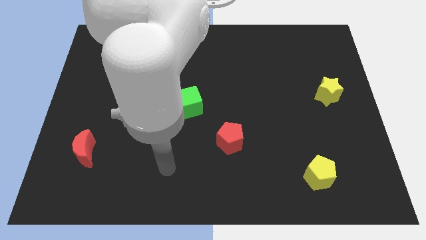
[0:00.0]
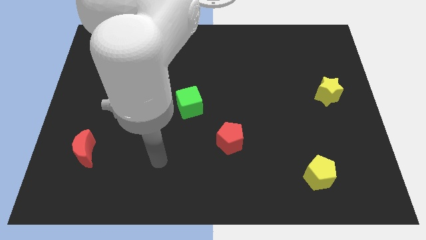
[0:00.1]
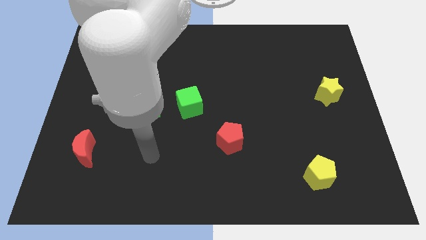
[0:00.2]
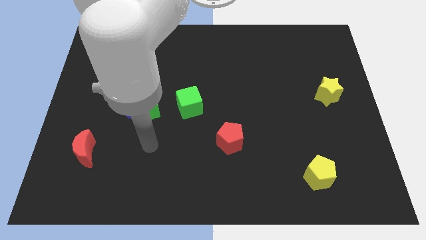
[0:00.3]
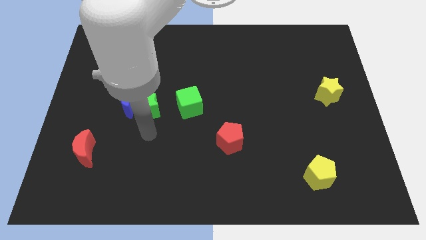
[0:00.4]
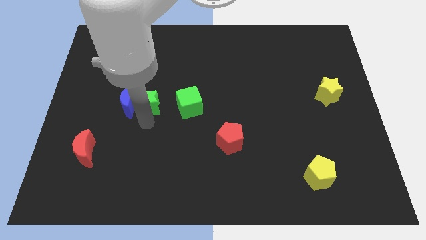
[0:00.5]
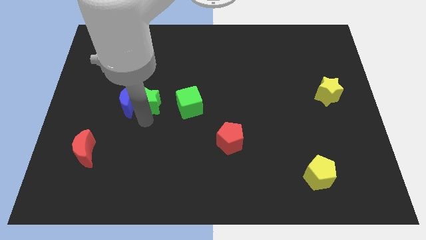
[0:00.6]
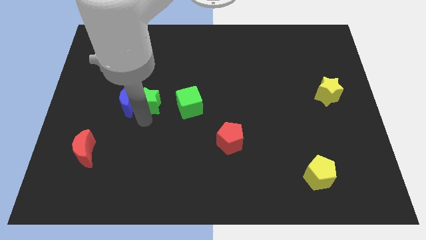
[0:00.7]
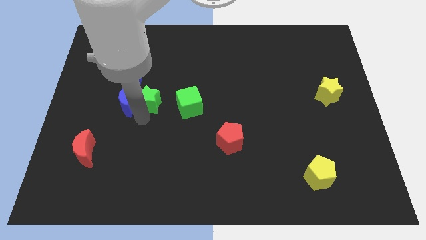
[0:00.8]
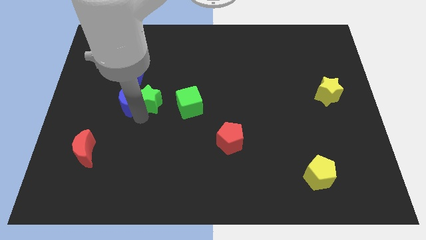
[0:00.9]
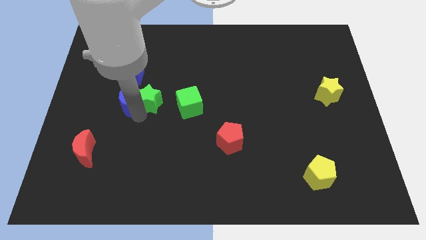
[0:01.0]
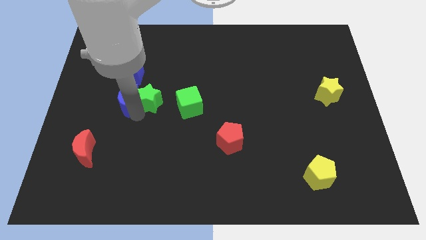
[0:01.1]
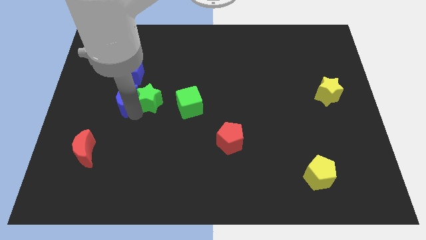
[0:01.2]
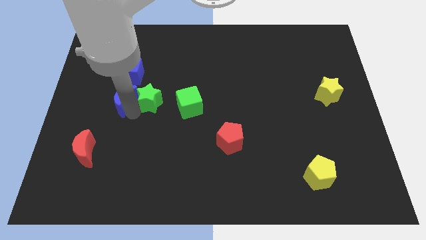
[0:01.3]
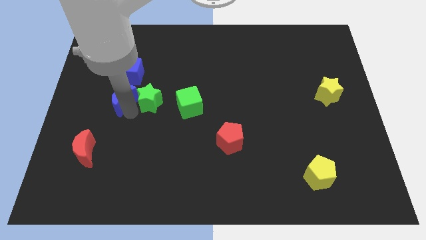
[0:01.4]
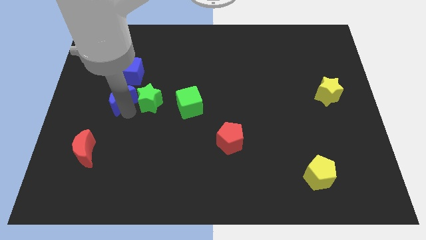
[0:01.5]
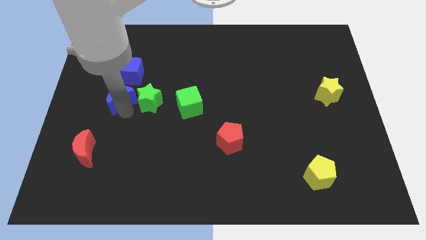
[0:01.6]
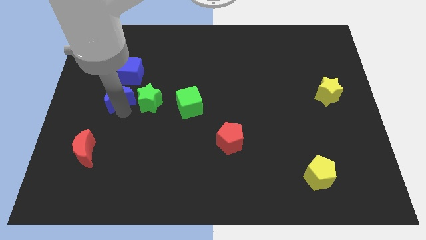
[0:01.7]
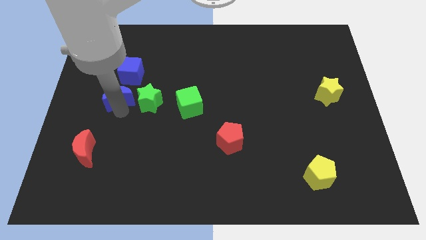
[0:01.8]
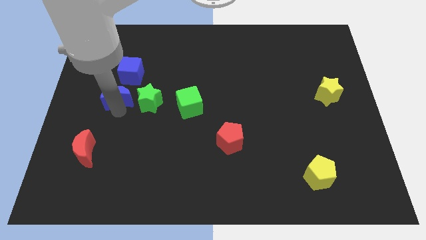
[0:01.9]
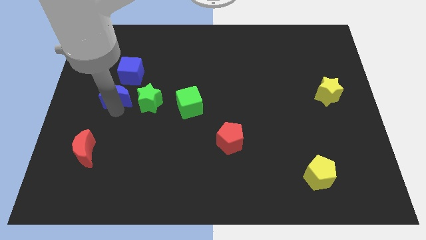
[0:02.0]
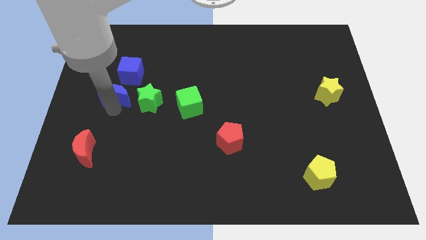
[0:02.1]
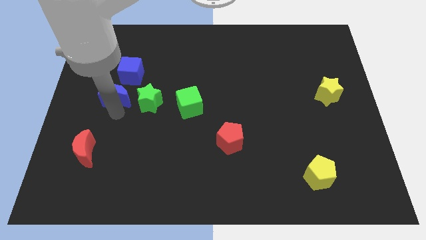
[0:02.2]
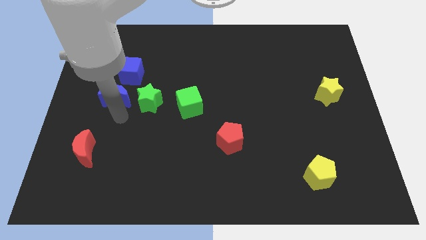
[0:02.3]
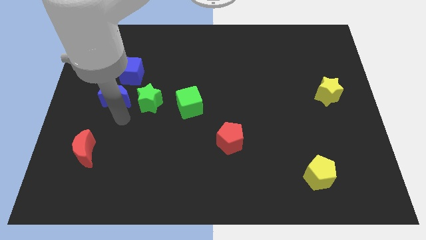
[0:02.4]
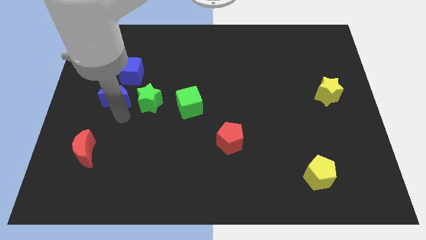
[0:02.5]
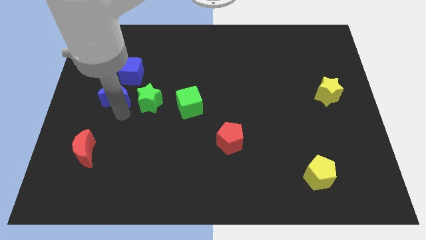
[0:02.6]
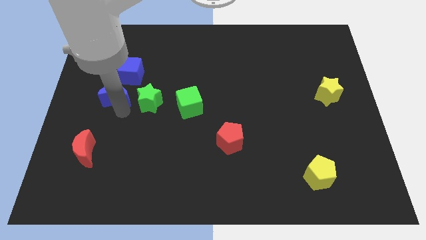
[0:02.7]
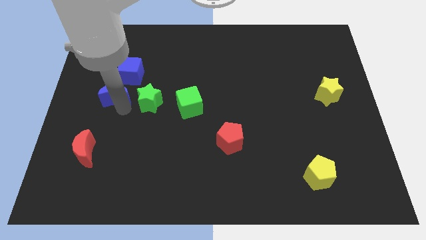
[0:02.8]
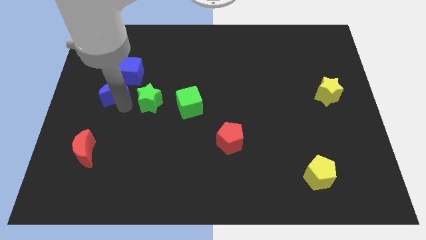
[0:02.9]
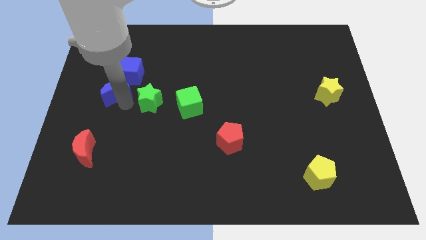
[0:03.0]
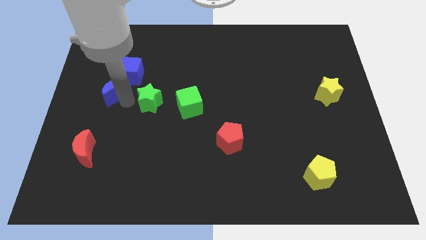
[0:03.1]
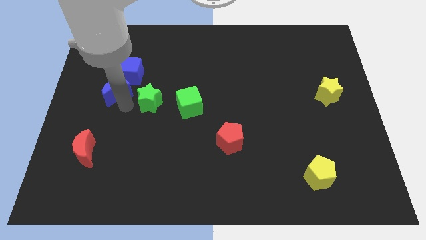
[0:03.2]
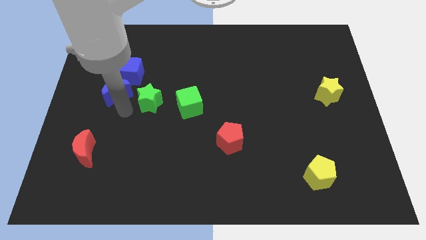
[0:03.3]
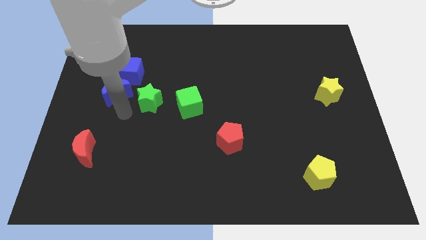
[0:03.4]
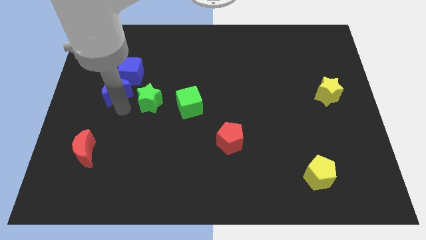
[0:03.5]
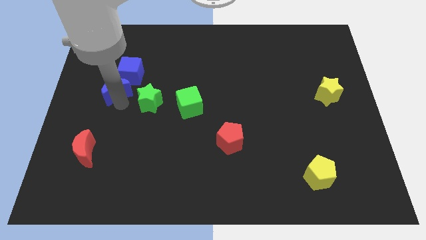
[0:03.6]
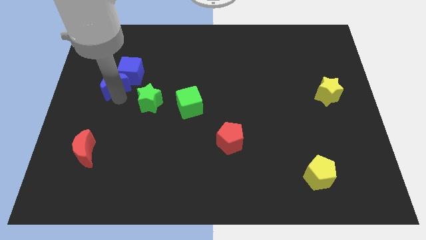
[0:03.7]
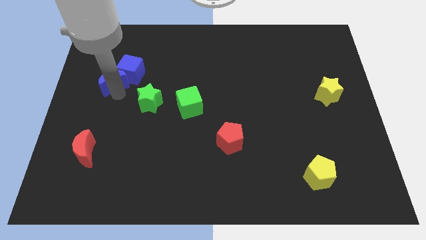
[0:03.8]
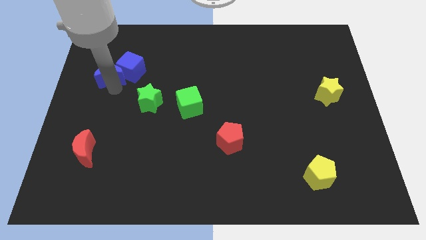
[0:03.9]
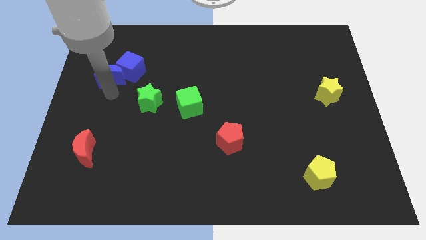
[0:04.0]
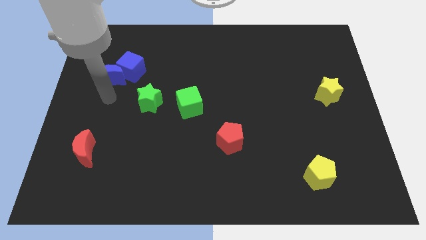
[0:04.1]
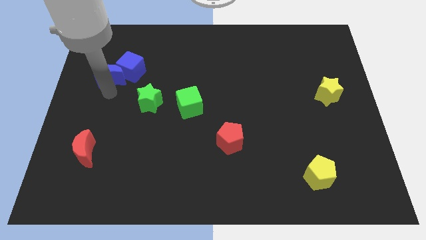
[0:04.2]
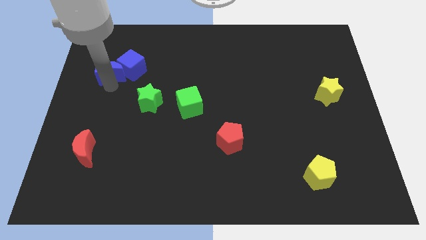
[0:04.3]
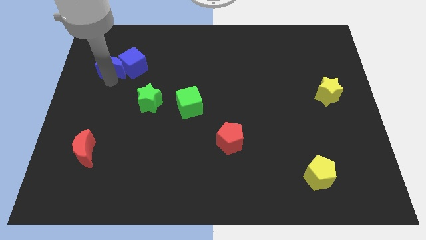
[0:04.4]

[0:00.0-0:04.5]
move the blue moon to the top left side of the blue cube

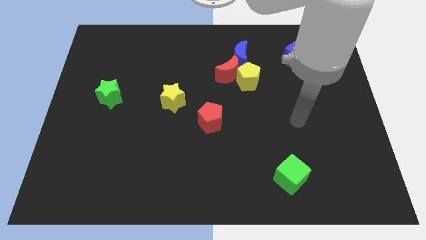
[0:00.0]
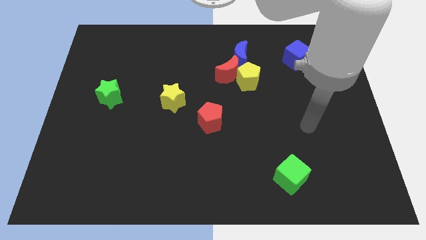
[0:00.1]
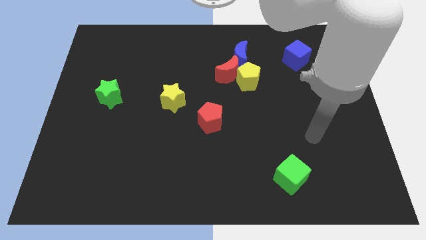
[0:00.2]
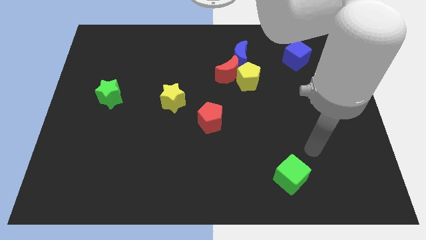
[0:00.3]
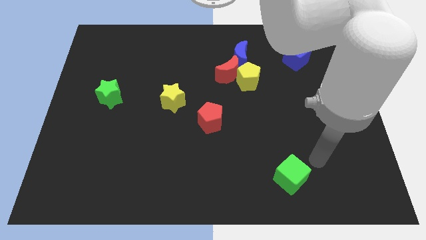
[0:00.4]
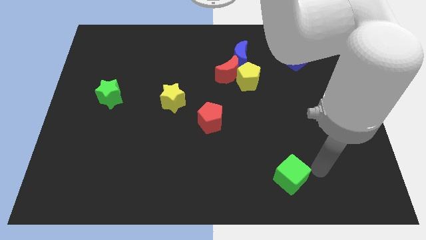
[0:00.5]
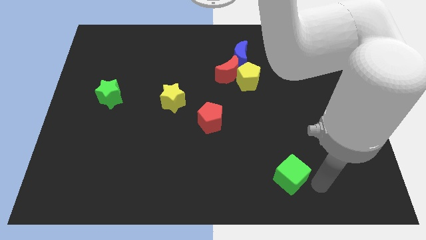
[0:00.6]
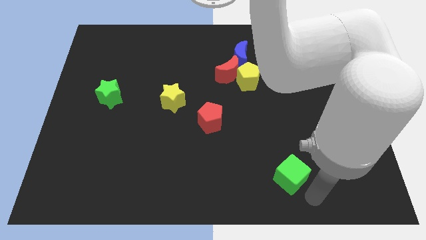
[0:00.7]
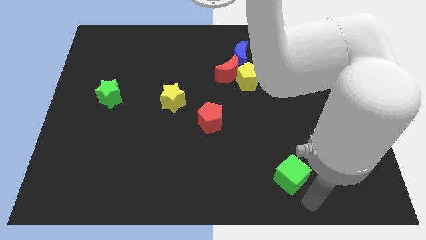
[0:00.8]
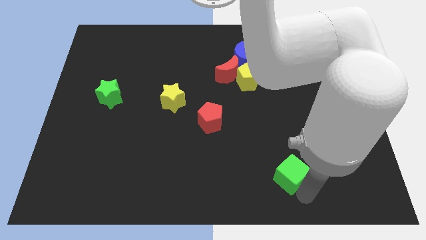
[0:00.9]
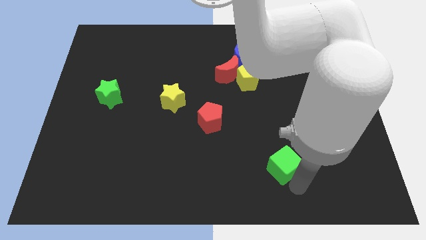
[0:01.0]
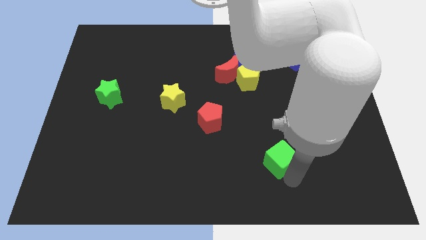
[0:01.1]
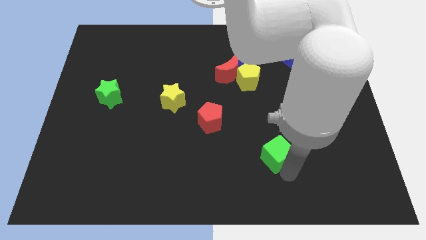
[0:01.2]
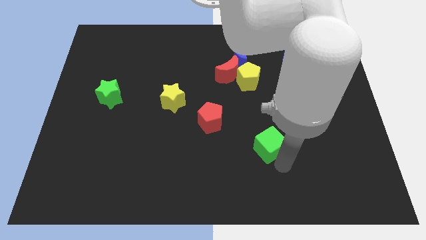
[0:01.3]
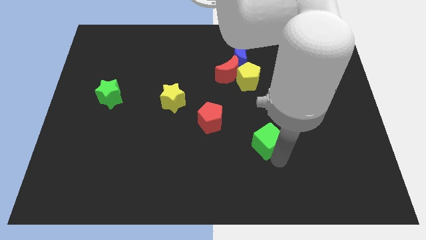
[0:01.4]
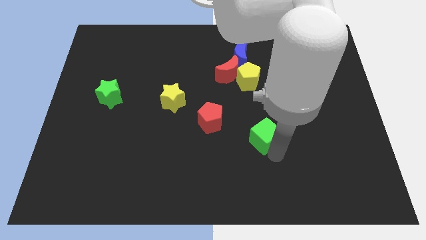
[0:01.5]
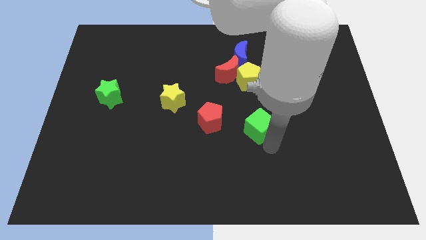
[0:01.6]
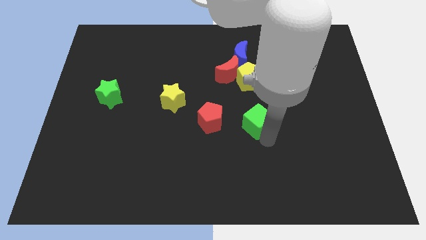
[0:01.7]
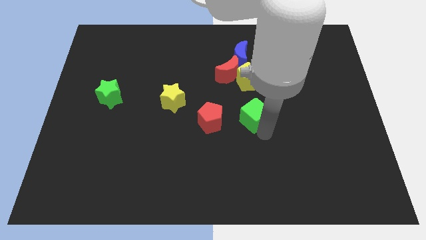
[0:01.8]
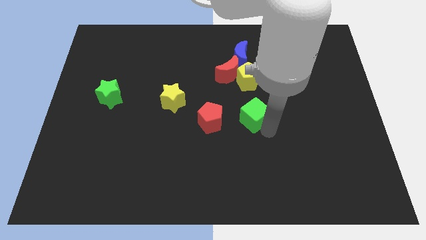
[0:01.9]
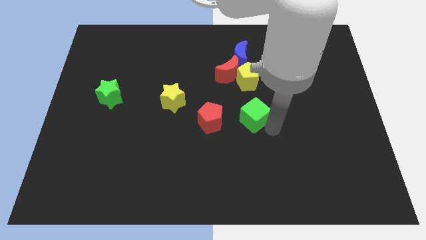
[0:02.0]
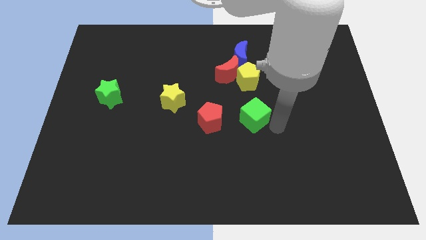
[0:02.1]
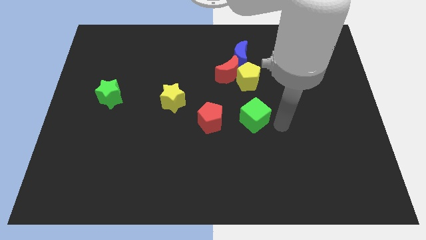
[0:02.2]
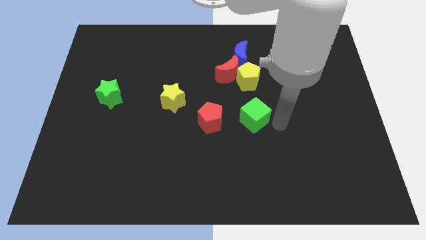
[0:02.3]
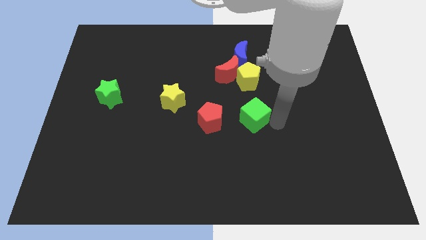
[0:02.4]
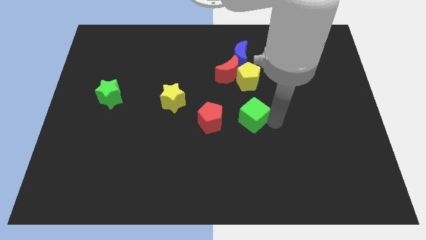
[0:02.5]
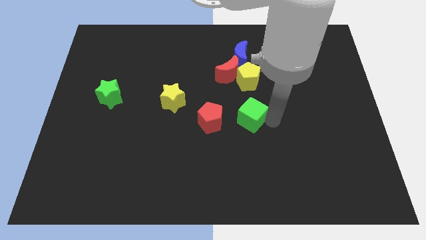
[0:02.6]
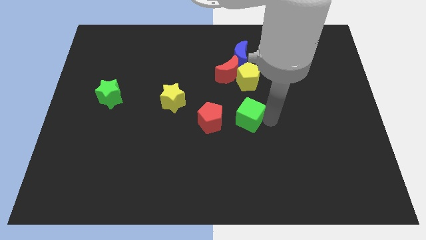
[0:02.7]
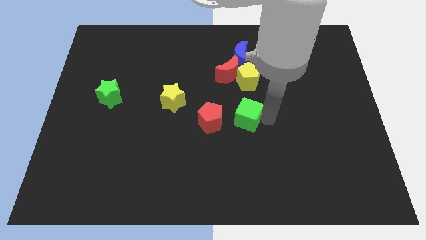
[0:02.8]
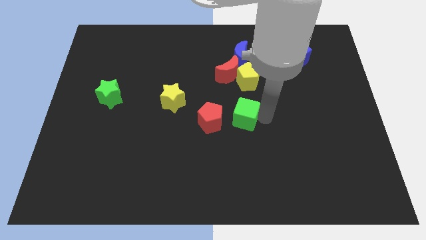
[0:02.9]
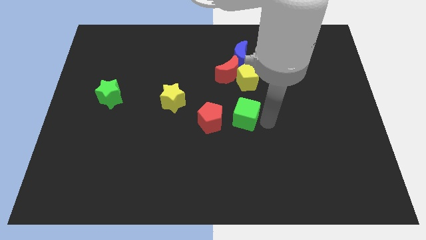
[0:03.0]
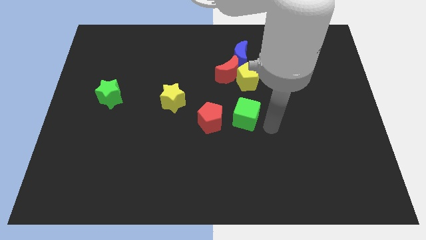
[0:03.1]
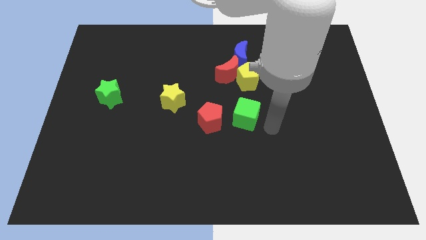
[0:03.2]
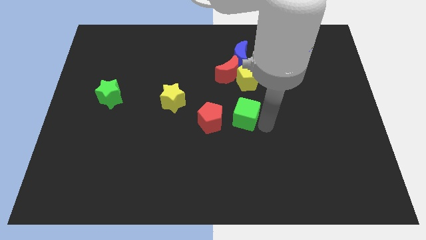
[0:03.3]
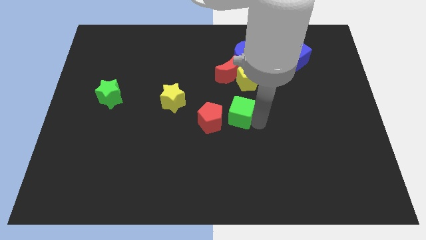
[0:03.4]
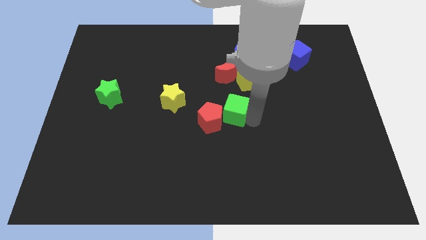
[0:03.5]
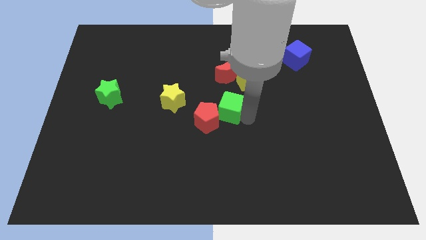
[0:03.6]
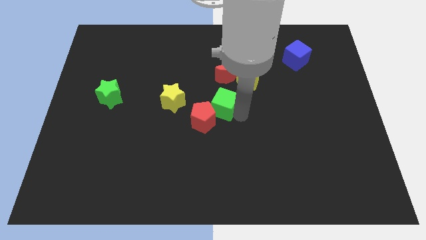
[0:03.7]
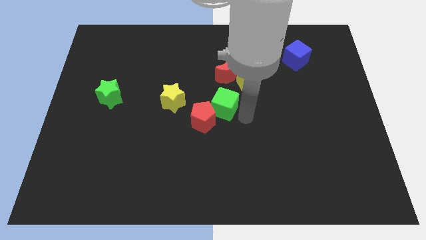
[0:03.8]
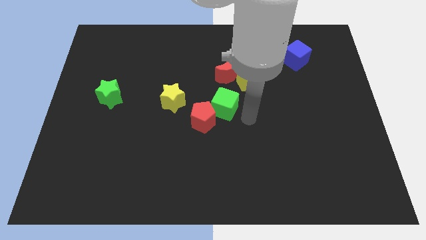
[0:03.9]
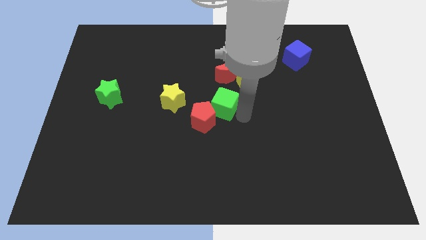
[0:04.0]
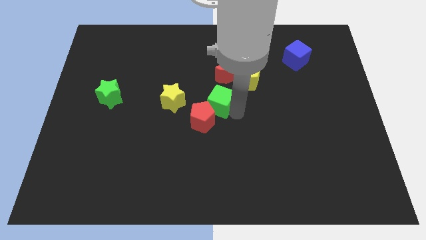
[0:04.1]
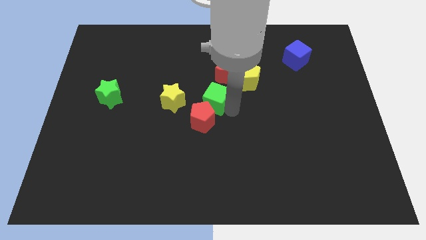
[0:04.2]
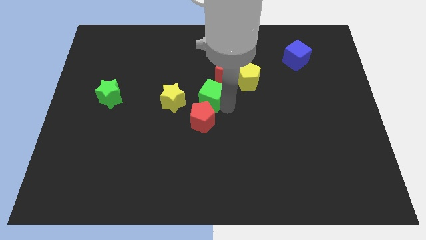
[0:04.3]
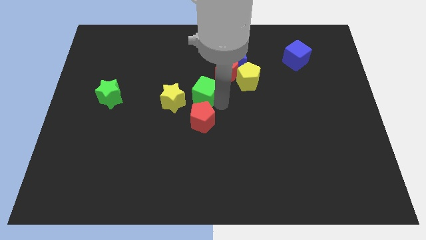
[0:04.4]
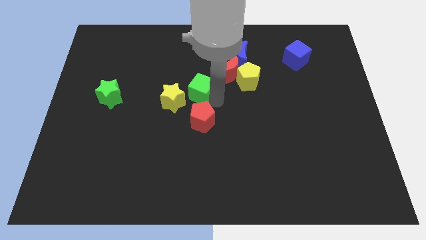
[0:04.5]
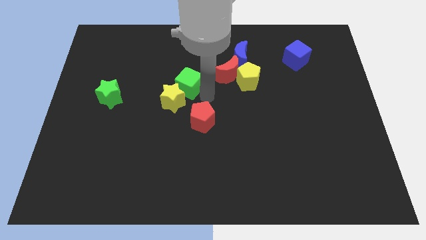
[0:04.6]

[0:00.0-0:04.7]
slide the green cube to the top of the yellow star
